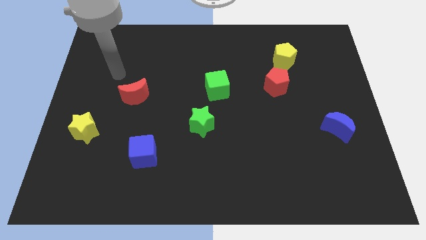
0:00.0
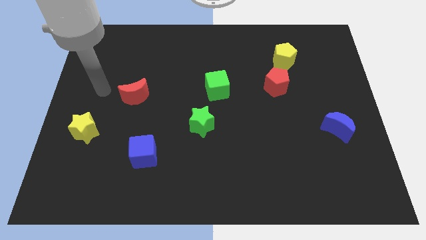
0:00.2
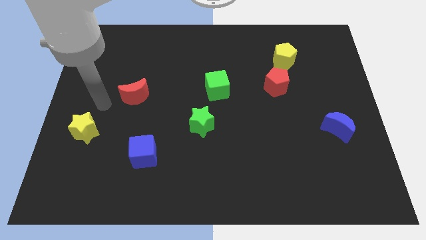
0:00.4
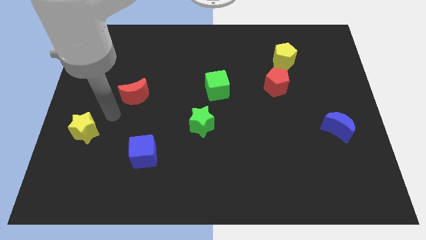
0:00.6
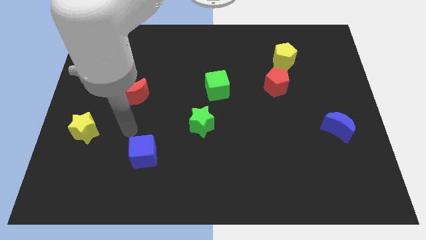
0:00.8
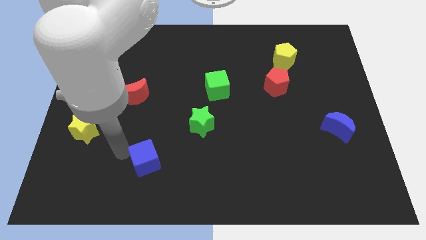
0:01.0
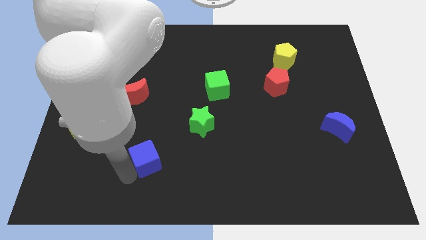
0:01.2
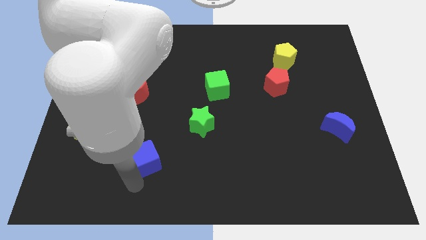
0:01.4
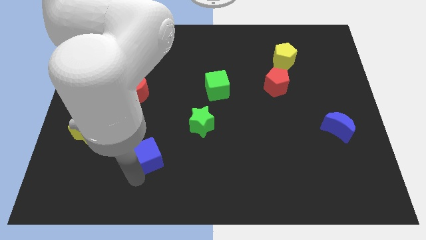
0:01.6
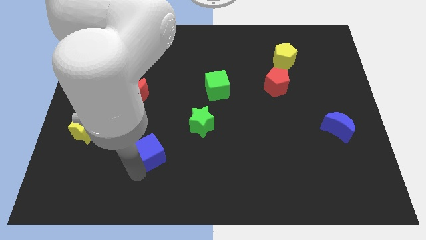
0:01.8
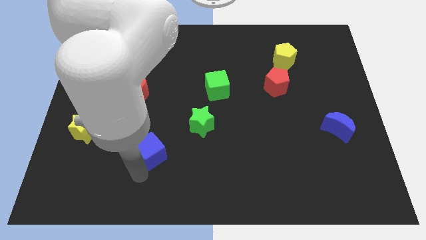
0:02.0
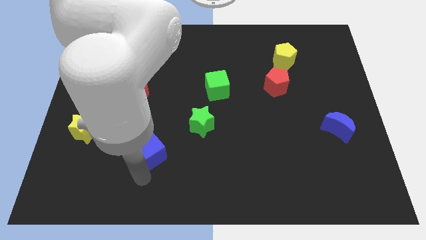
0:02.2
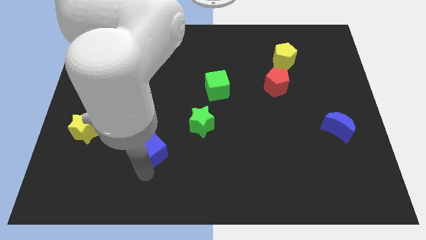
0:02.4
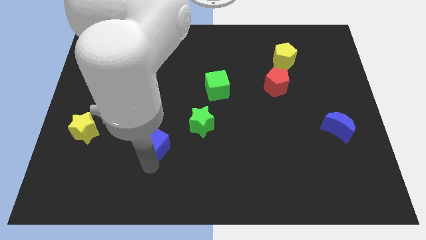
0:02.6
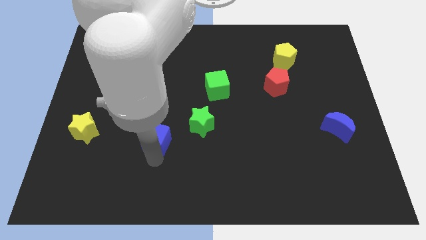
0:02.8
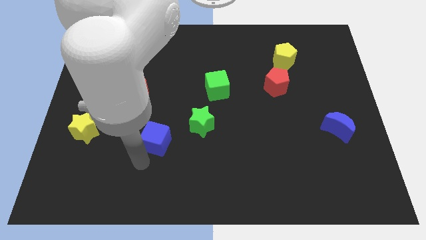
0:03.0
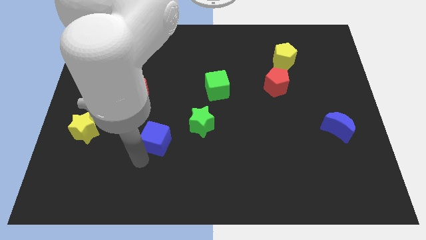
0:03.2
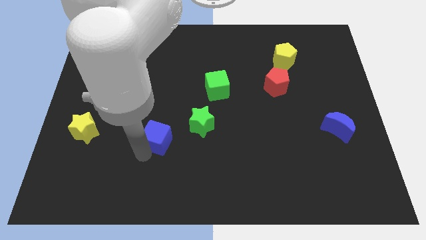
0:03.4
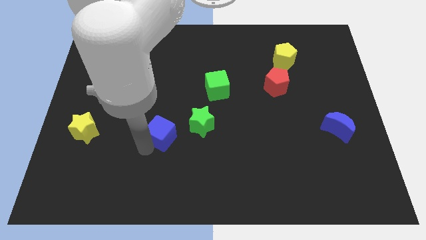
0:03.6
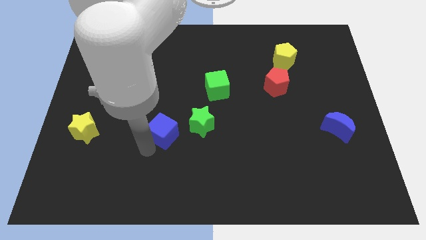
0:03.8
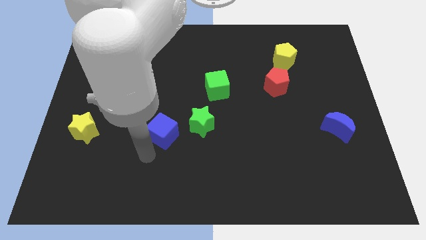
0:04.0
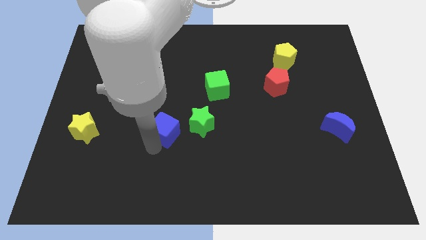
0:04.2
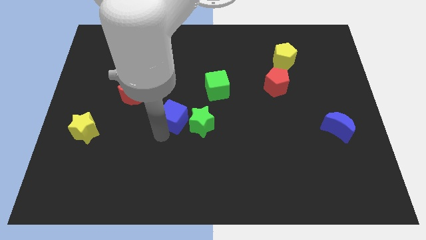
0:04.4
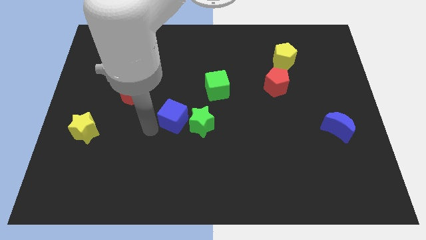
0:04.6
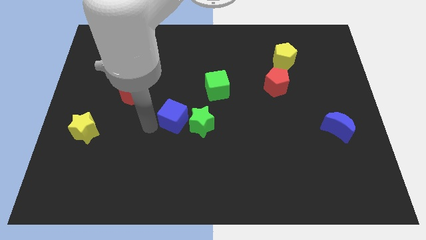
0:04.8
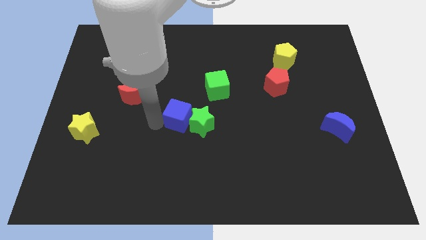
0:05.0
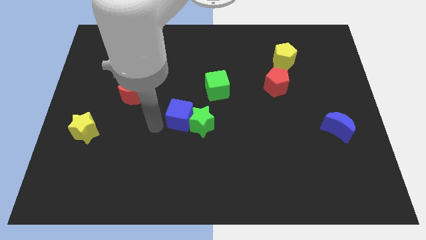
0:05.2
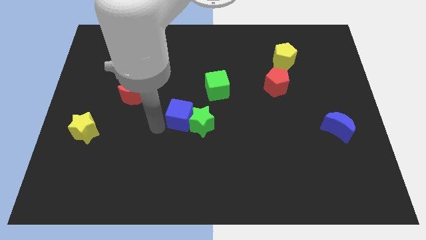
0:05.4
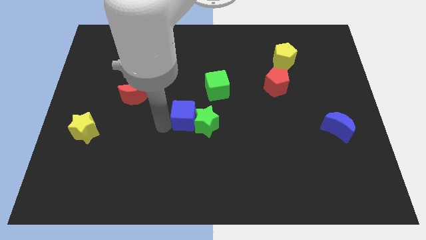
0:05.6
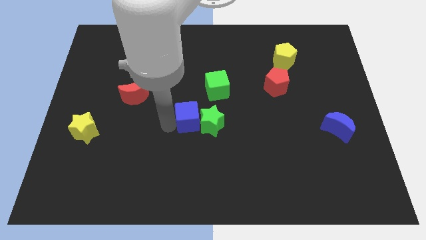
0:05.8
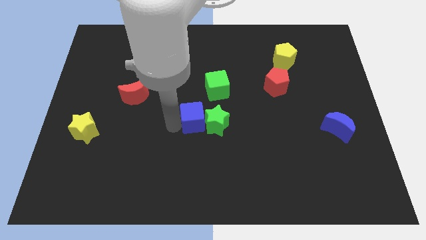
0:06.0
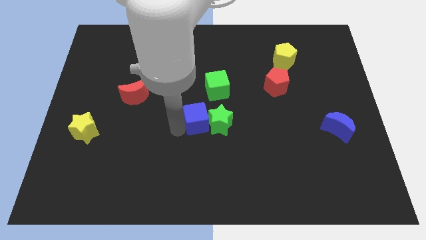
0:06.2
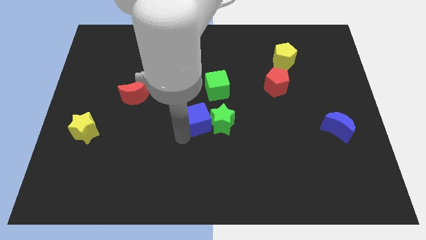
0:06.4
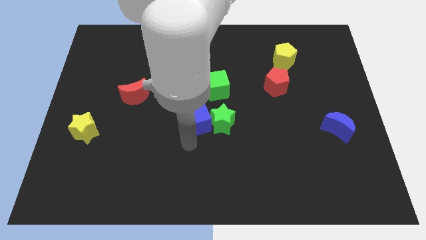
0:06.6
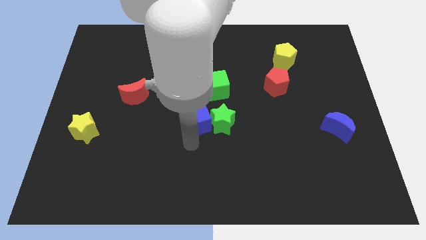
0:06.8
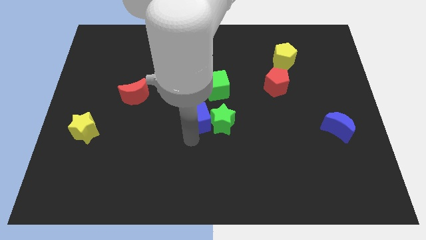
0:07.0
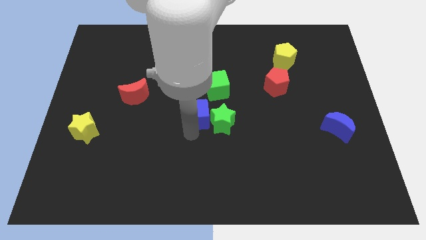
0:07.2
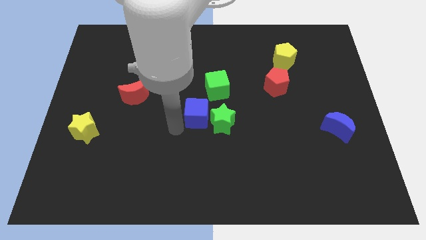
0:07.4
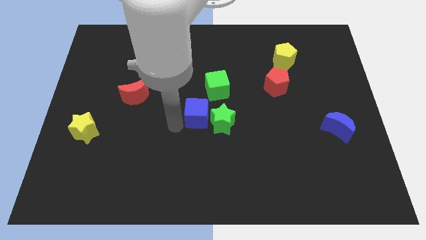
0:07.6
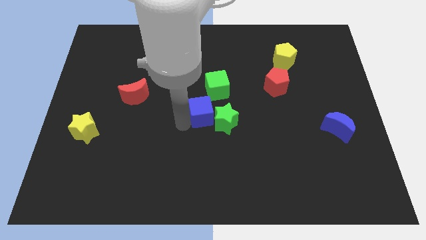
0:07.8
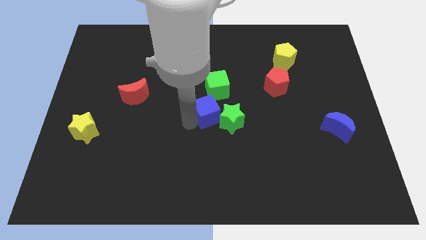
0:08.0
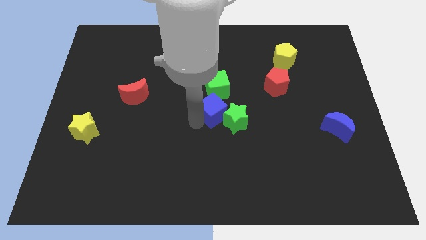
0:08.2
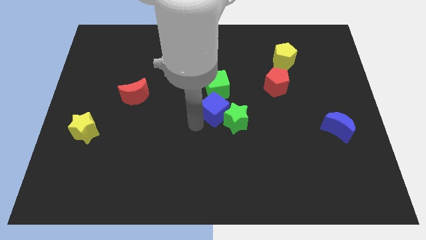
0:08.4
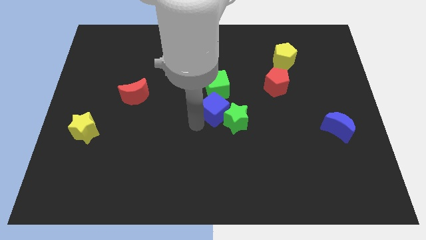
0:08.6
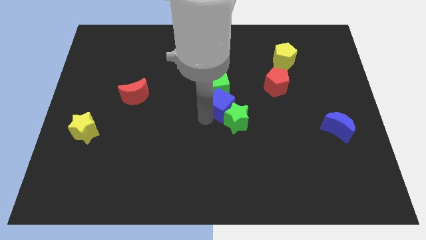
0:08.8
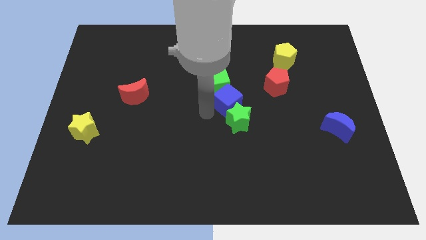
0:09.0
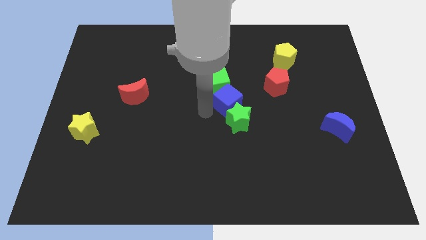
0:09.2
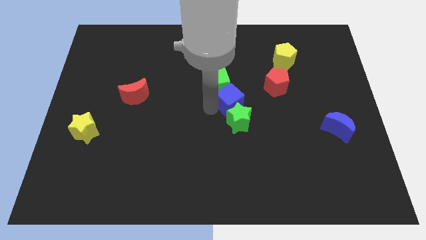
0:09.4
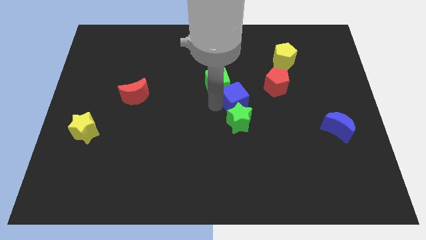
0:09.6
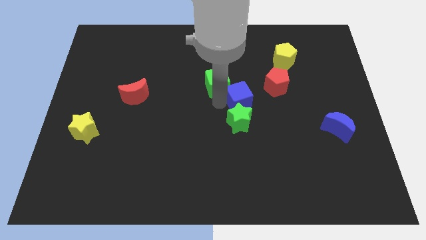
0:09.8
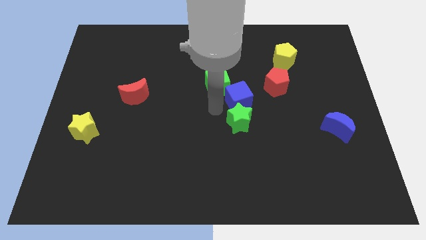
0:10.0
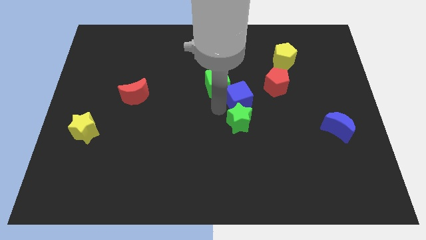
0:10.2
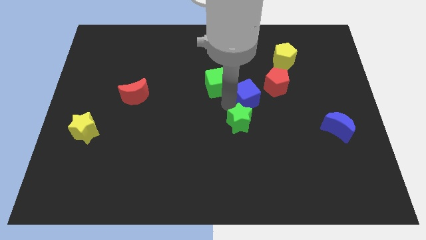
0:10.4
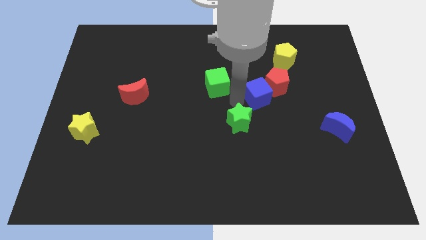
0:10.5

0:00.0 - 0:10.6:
slide the blue cube to the red pentagon

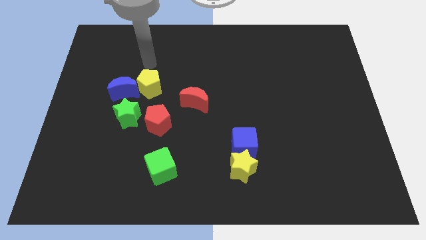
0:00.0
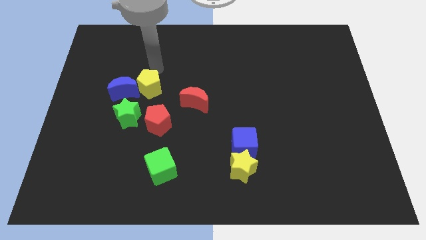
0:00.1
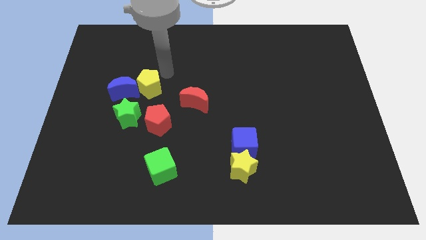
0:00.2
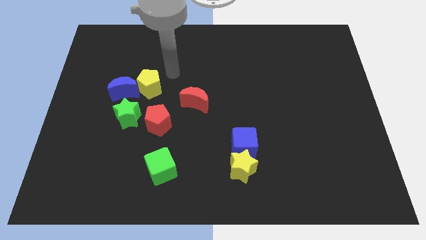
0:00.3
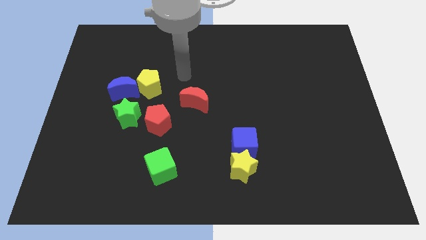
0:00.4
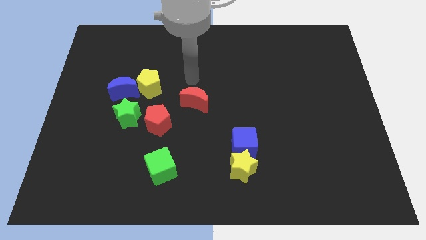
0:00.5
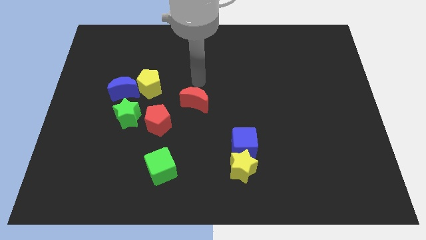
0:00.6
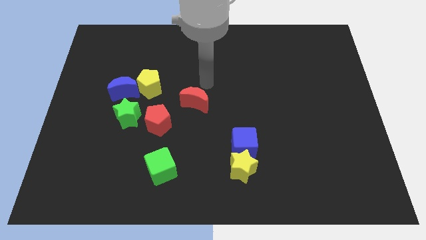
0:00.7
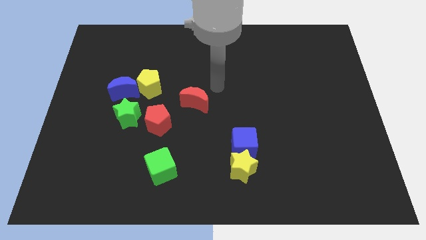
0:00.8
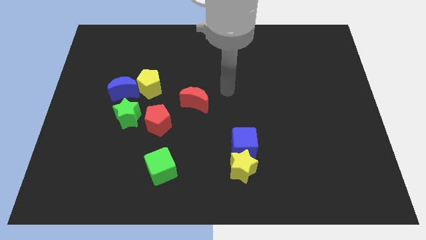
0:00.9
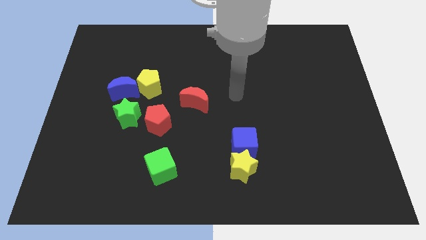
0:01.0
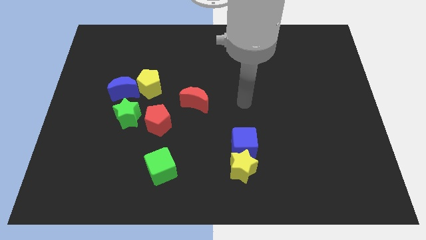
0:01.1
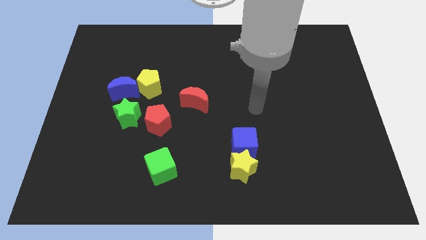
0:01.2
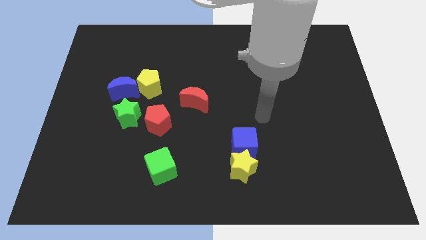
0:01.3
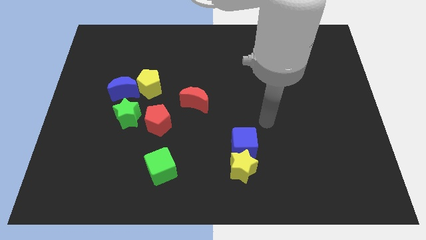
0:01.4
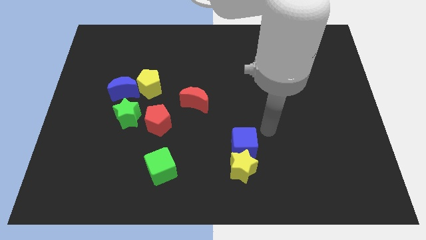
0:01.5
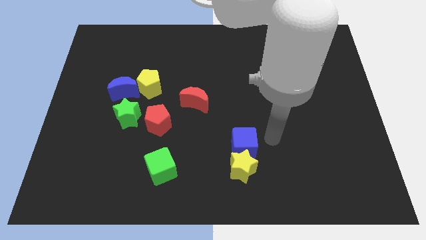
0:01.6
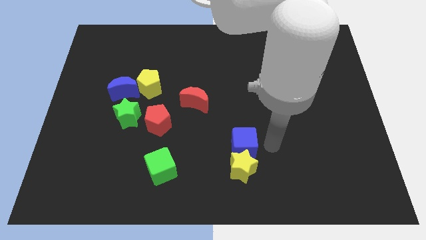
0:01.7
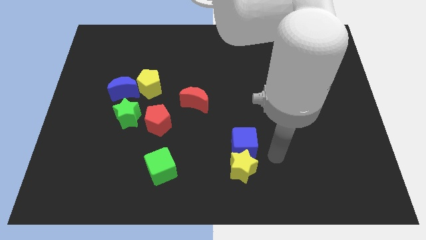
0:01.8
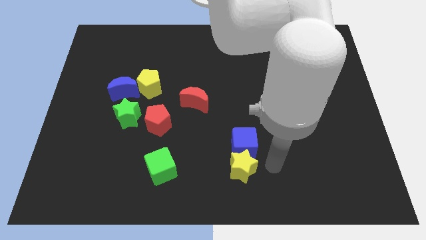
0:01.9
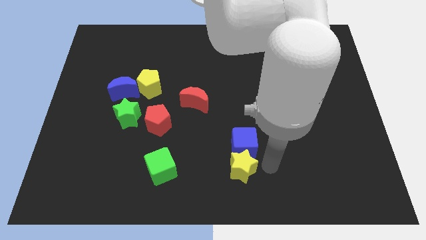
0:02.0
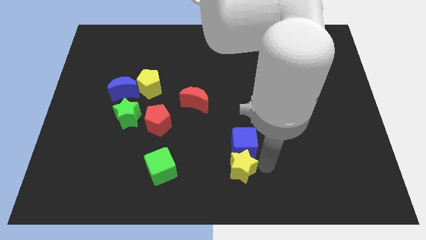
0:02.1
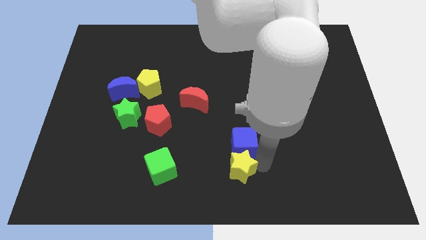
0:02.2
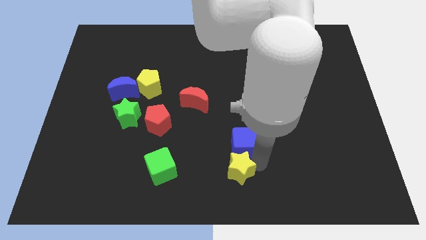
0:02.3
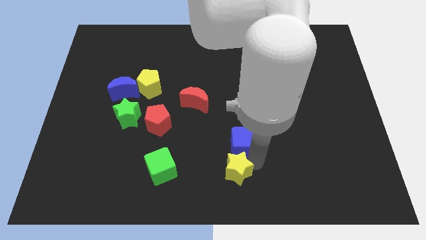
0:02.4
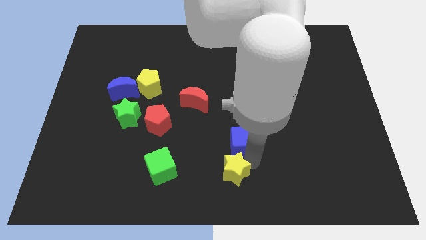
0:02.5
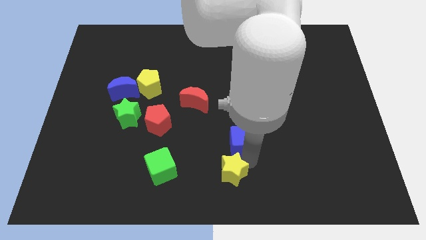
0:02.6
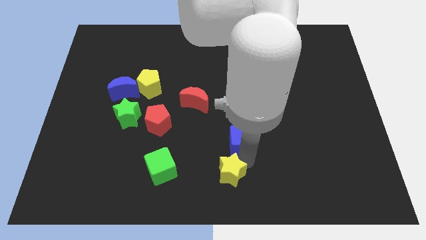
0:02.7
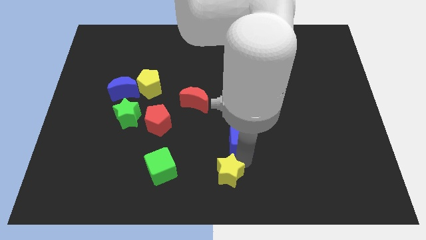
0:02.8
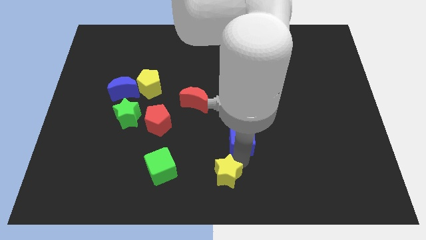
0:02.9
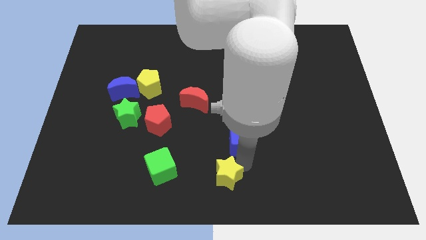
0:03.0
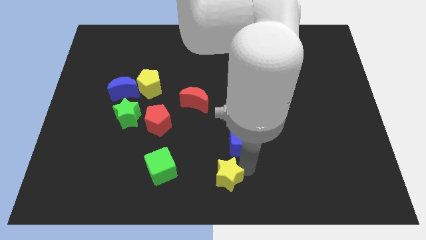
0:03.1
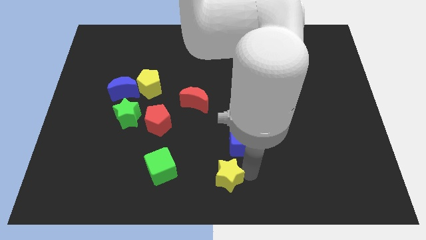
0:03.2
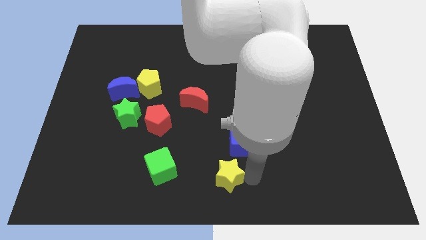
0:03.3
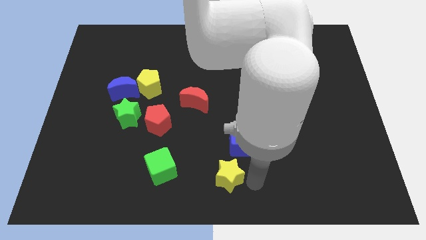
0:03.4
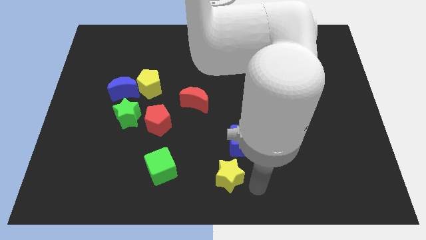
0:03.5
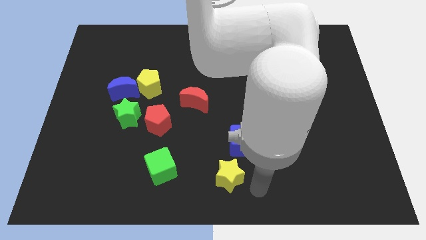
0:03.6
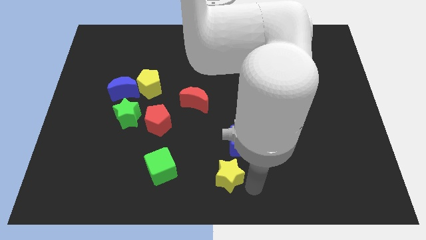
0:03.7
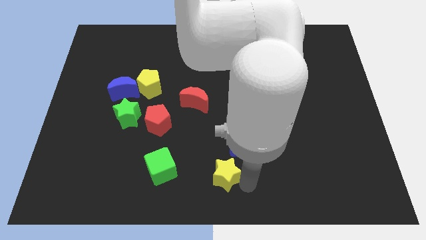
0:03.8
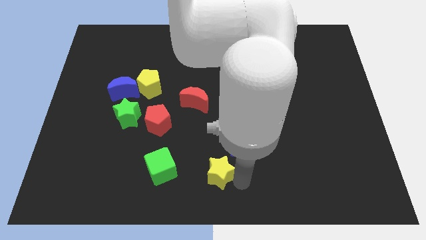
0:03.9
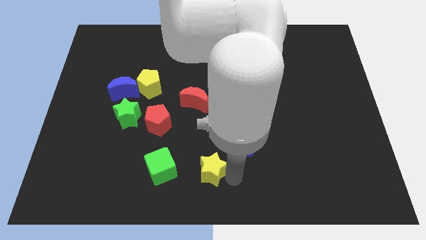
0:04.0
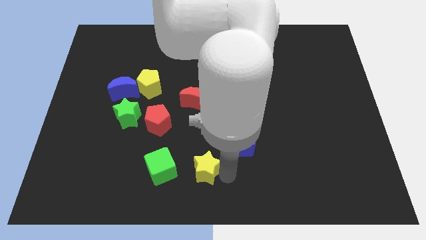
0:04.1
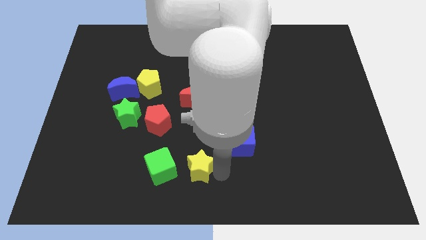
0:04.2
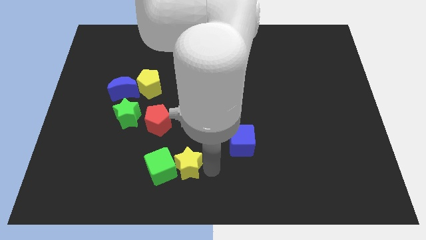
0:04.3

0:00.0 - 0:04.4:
put the yellow star close to the green cube
